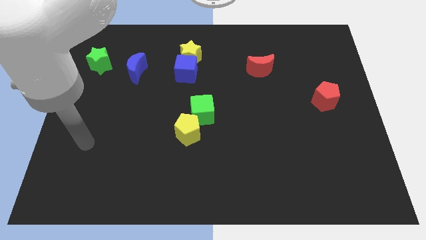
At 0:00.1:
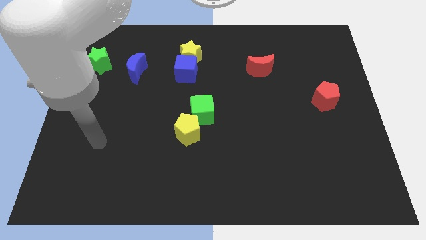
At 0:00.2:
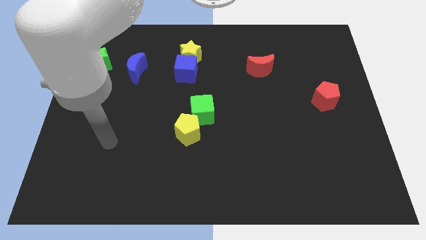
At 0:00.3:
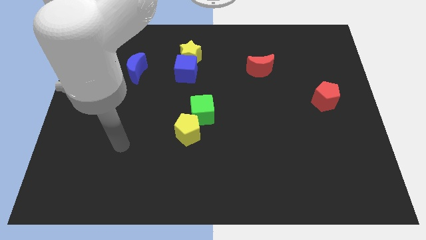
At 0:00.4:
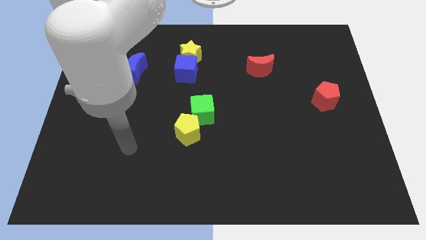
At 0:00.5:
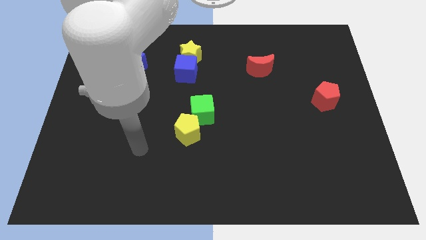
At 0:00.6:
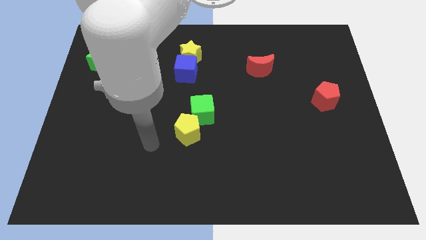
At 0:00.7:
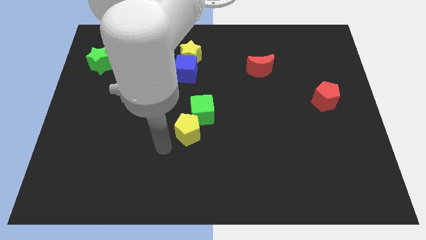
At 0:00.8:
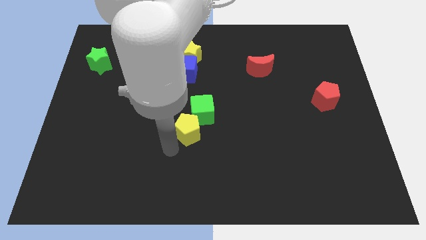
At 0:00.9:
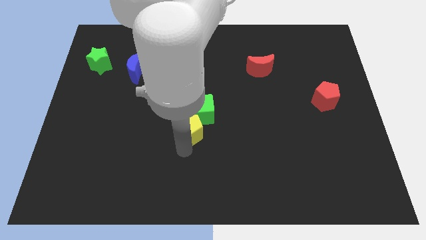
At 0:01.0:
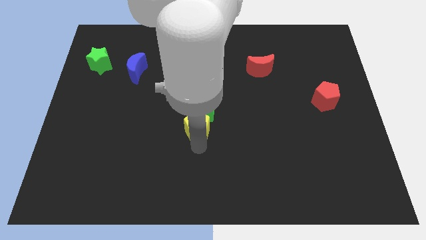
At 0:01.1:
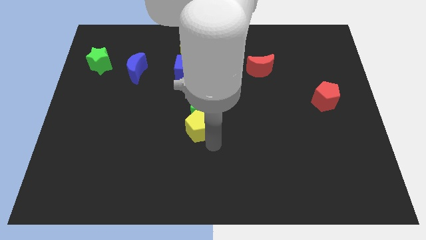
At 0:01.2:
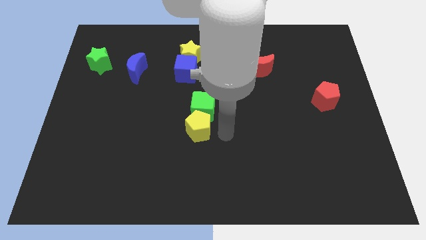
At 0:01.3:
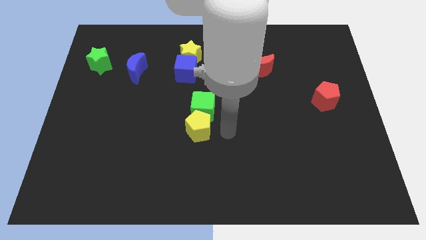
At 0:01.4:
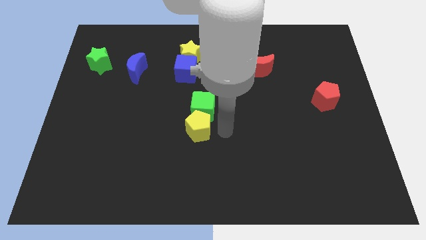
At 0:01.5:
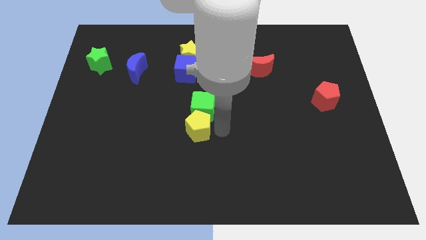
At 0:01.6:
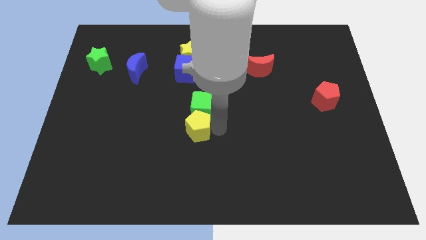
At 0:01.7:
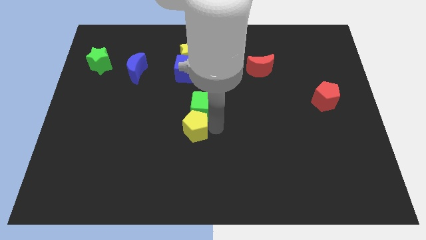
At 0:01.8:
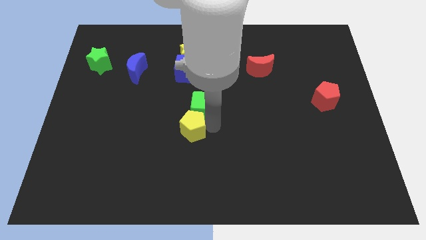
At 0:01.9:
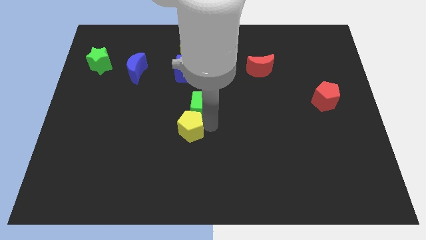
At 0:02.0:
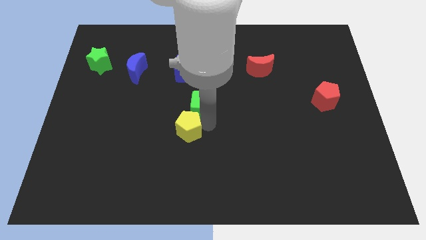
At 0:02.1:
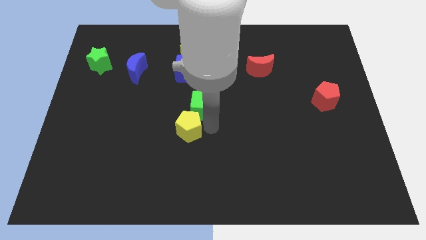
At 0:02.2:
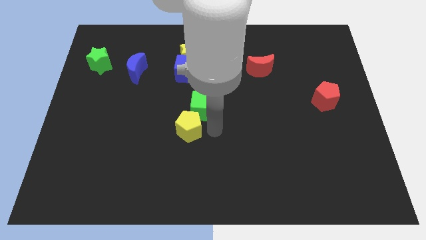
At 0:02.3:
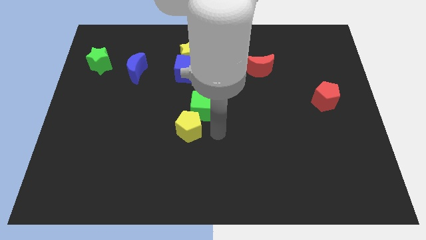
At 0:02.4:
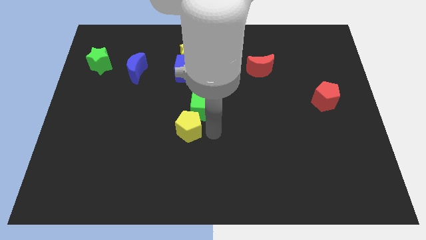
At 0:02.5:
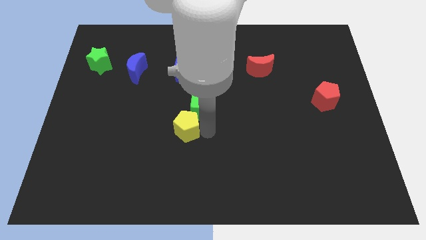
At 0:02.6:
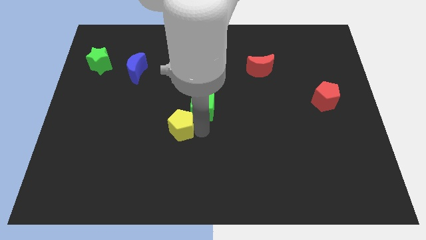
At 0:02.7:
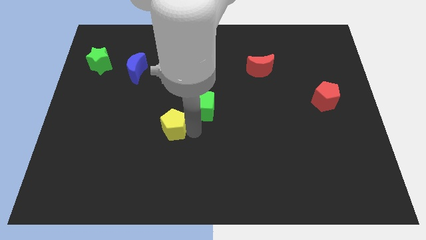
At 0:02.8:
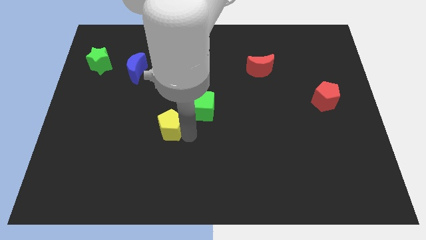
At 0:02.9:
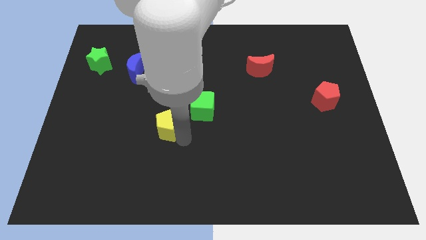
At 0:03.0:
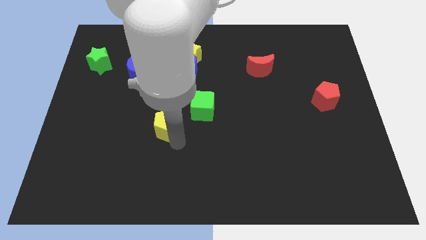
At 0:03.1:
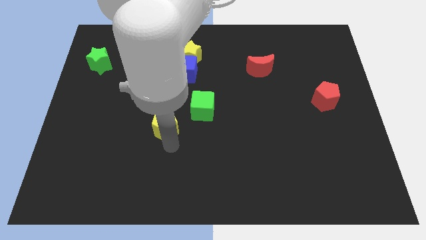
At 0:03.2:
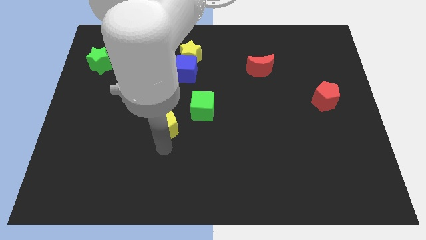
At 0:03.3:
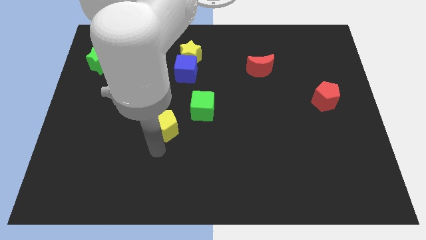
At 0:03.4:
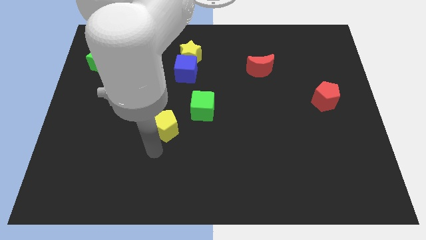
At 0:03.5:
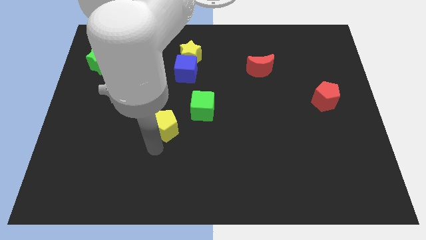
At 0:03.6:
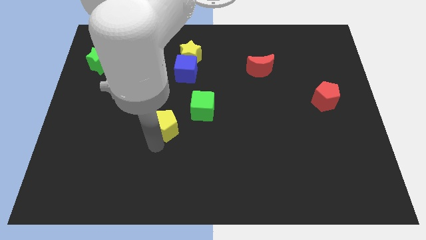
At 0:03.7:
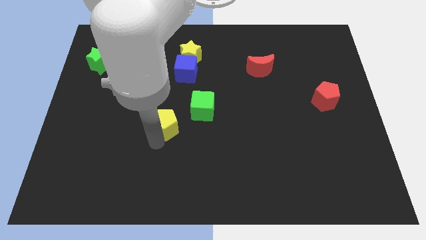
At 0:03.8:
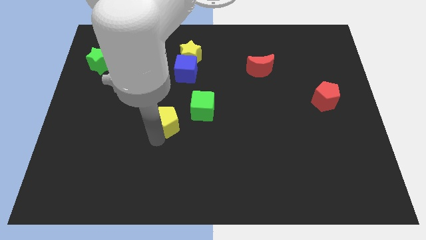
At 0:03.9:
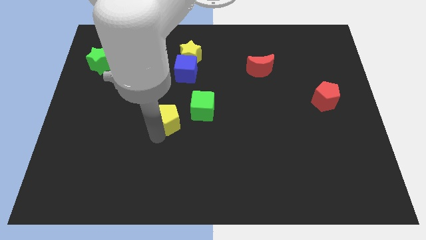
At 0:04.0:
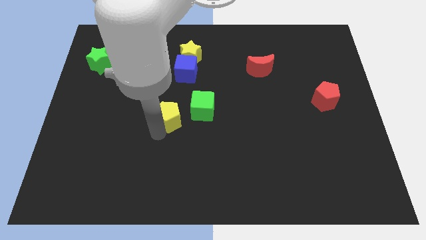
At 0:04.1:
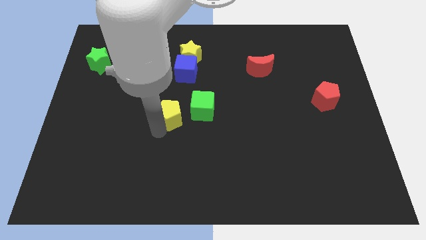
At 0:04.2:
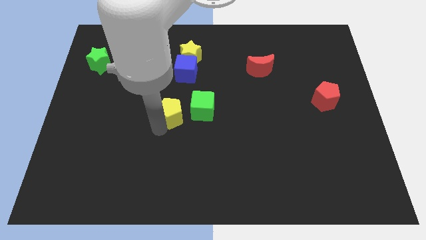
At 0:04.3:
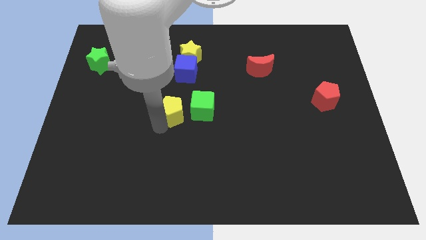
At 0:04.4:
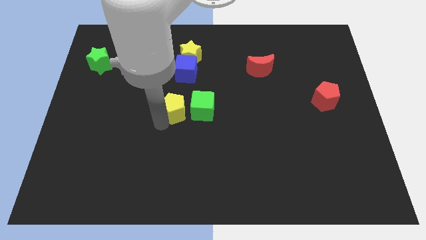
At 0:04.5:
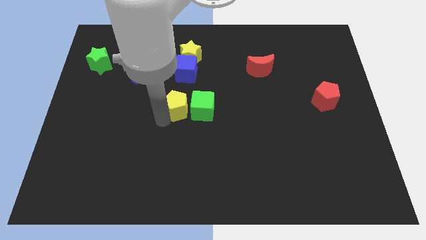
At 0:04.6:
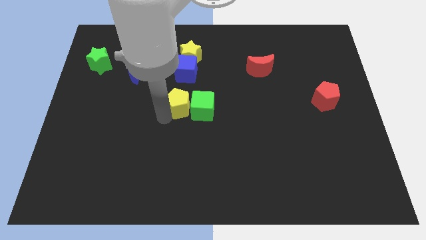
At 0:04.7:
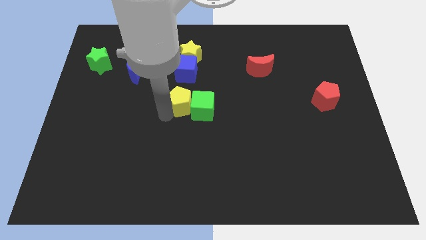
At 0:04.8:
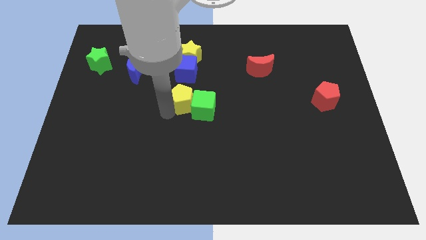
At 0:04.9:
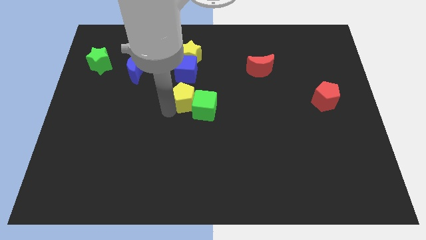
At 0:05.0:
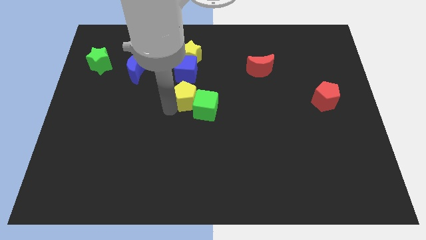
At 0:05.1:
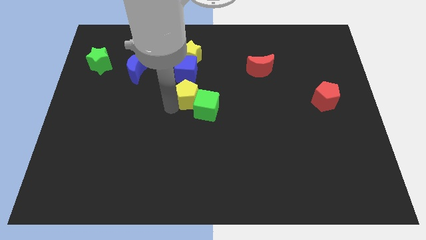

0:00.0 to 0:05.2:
put the yellow pentagon to the top side of the green cube

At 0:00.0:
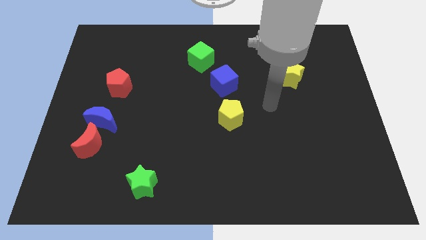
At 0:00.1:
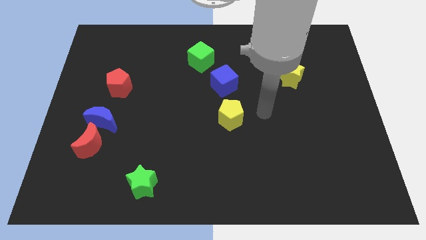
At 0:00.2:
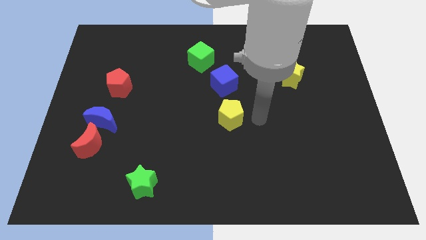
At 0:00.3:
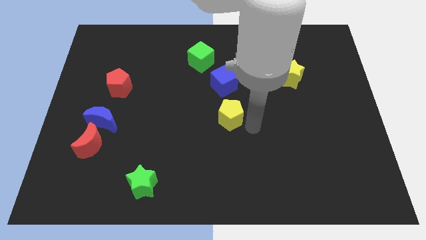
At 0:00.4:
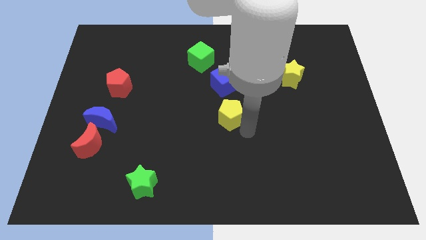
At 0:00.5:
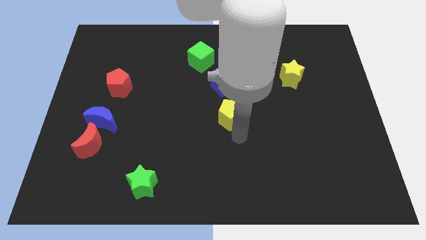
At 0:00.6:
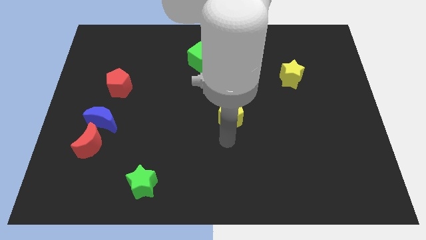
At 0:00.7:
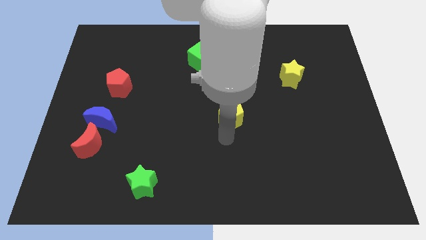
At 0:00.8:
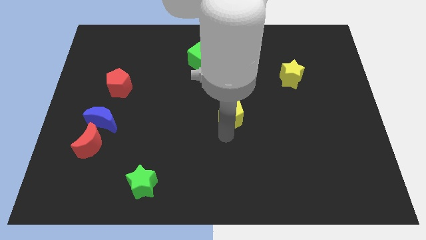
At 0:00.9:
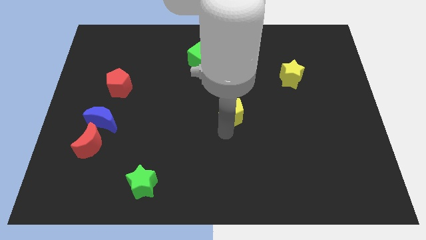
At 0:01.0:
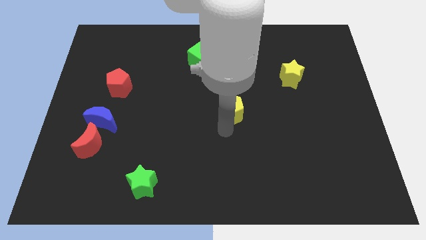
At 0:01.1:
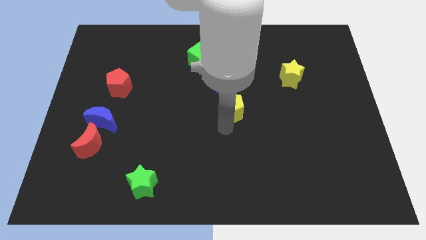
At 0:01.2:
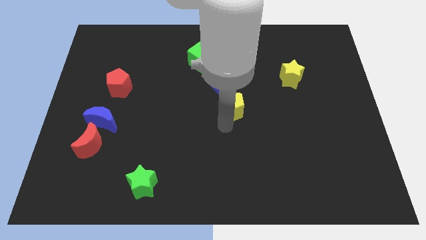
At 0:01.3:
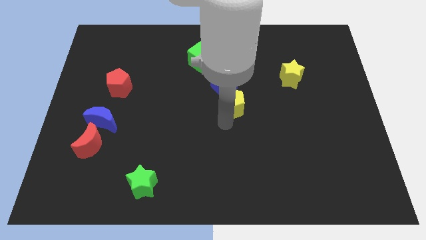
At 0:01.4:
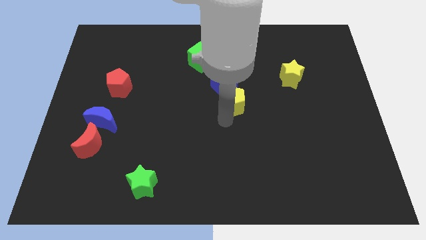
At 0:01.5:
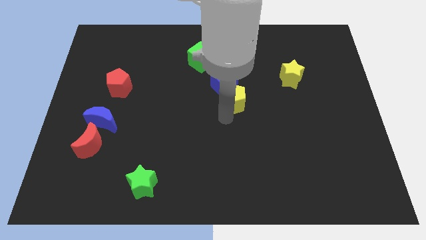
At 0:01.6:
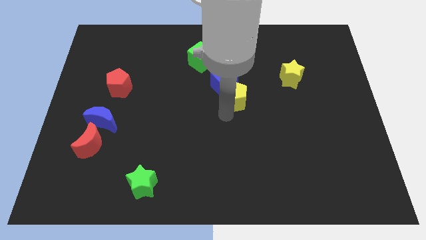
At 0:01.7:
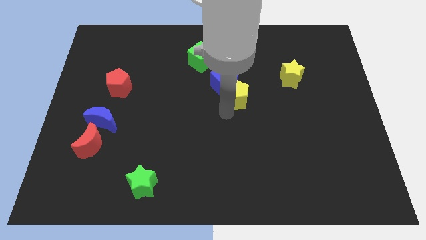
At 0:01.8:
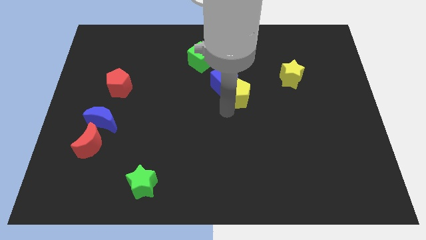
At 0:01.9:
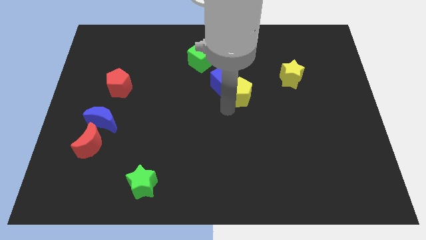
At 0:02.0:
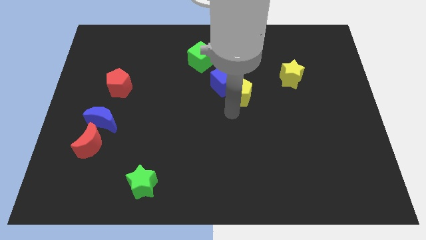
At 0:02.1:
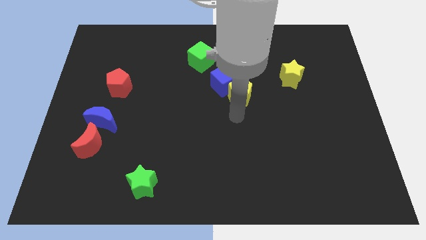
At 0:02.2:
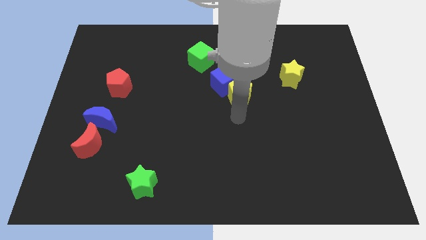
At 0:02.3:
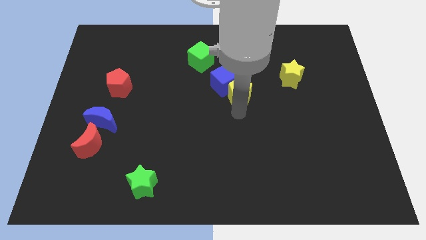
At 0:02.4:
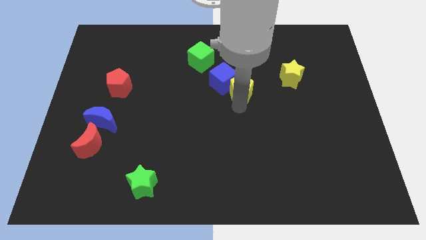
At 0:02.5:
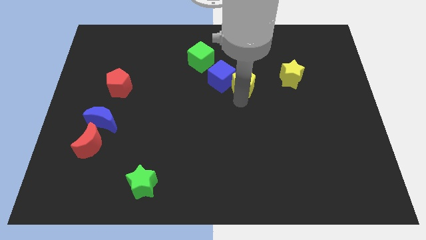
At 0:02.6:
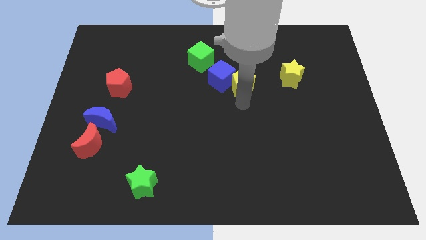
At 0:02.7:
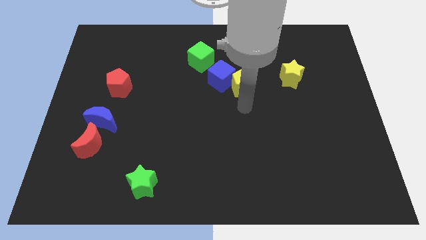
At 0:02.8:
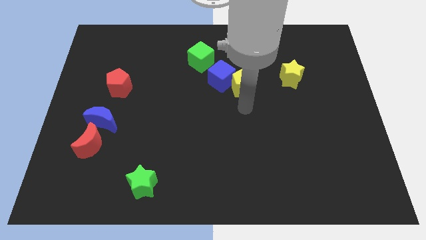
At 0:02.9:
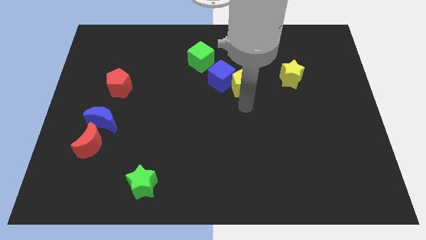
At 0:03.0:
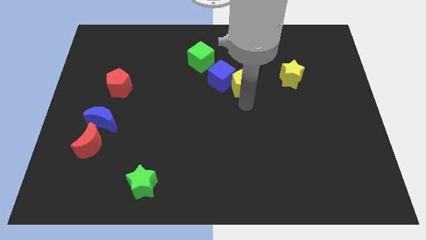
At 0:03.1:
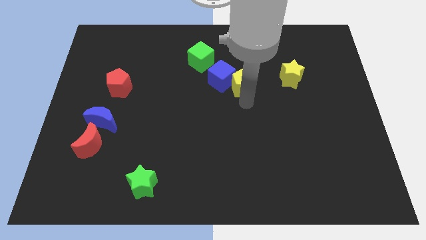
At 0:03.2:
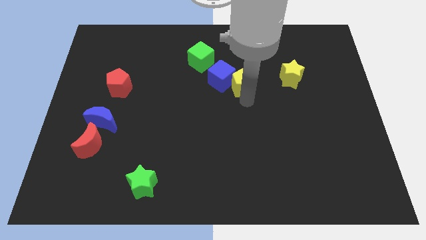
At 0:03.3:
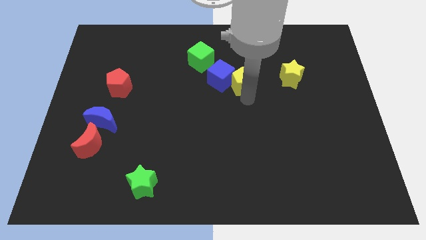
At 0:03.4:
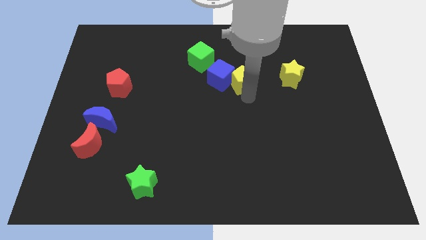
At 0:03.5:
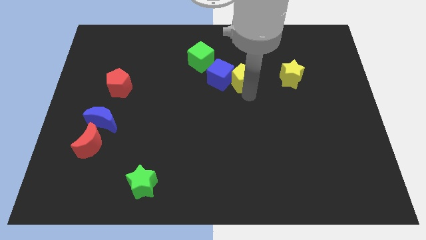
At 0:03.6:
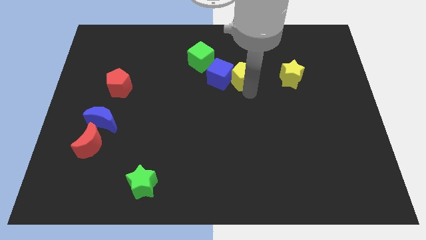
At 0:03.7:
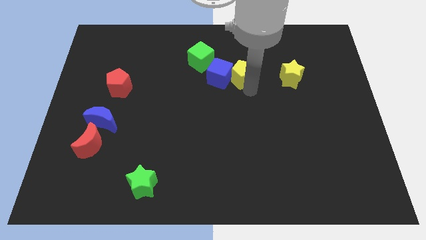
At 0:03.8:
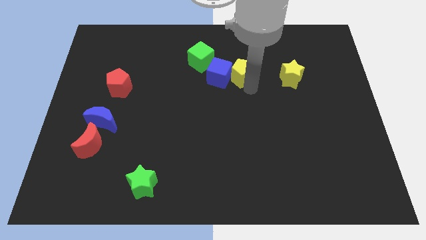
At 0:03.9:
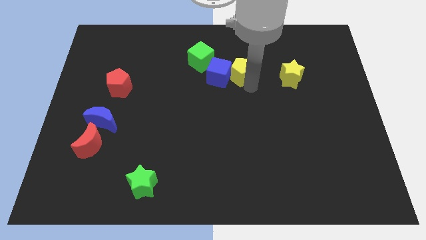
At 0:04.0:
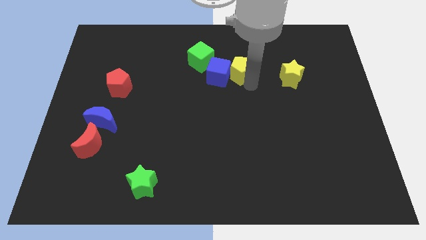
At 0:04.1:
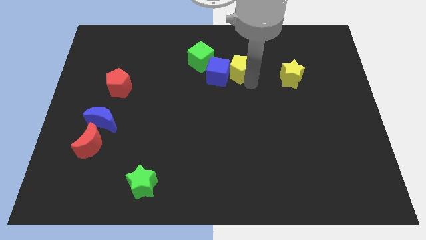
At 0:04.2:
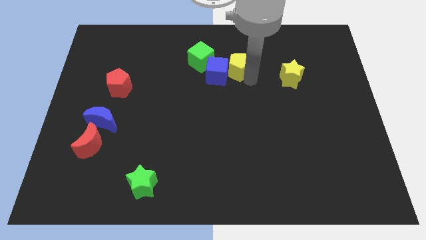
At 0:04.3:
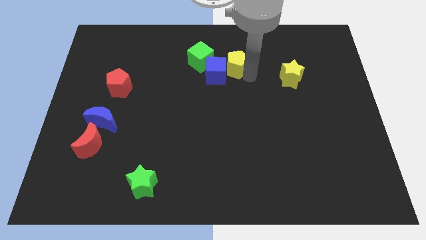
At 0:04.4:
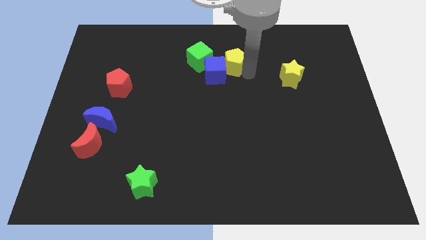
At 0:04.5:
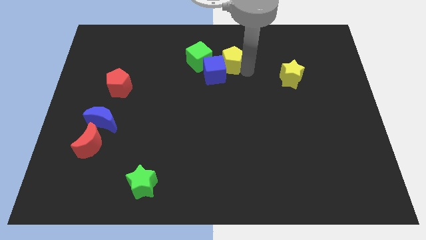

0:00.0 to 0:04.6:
put the yellow pentagon to the top of the blue cube
